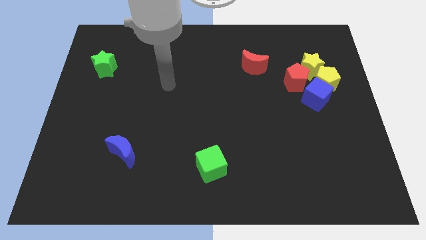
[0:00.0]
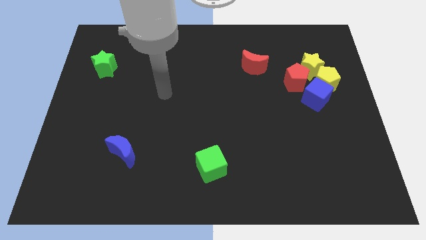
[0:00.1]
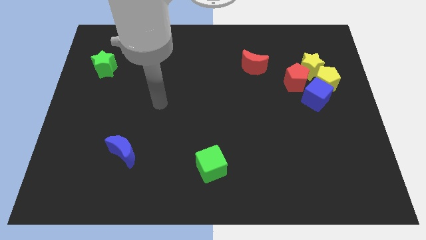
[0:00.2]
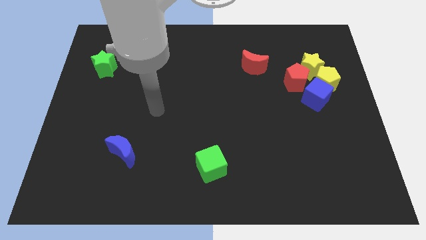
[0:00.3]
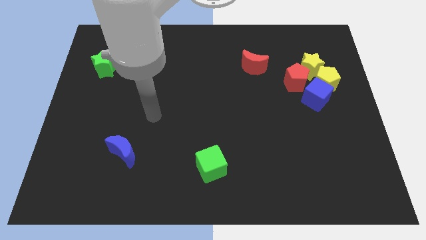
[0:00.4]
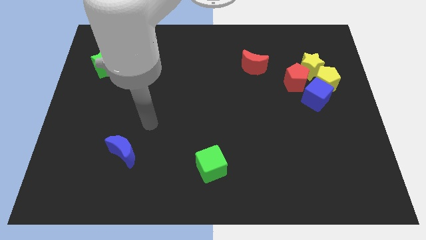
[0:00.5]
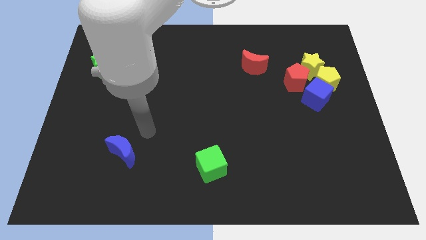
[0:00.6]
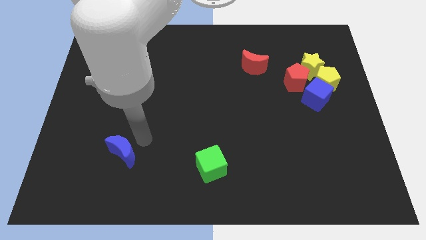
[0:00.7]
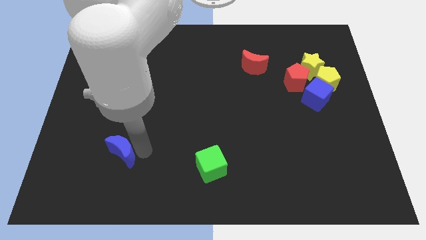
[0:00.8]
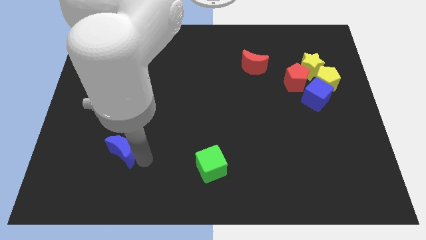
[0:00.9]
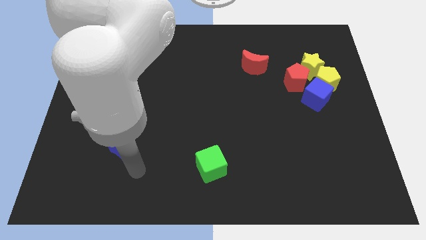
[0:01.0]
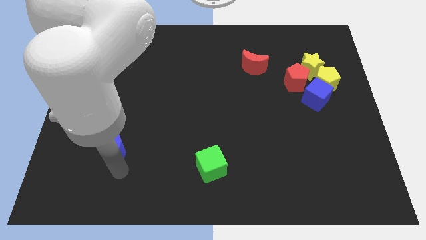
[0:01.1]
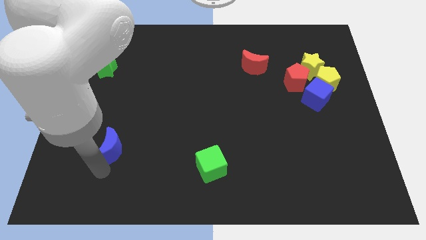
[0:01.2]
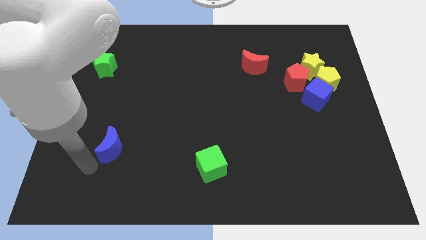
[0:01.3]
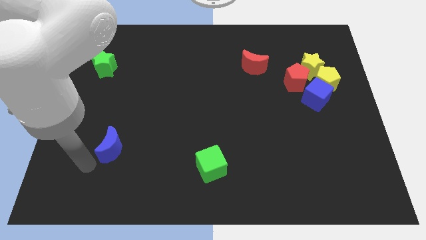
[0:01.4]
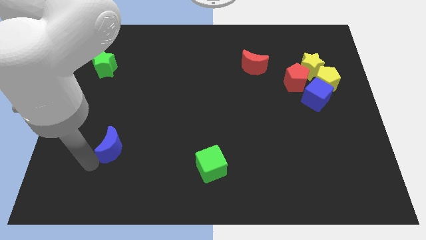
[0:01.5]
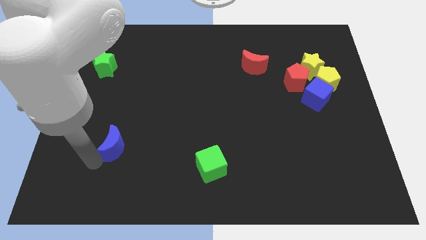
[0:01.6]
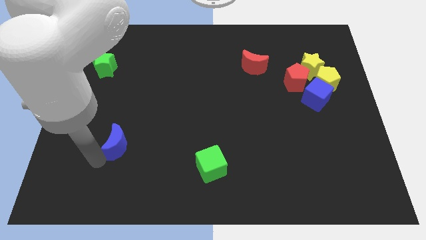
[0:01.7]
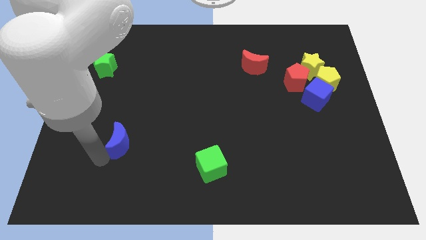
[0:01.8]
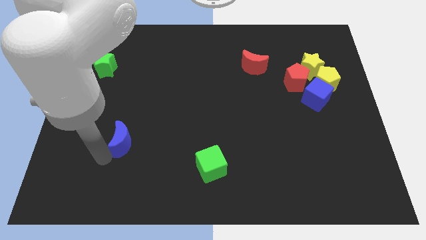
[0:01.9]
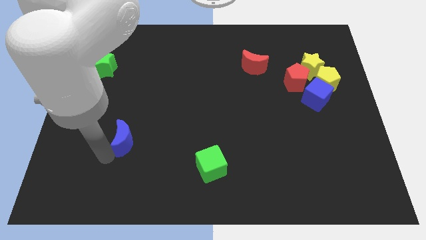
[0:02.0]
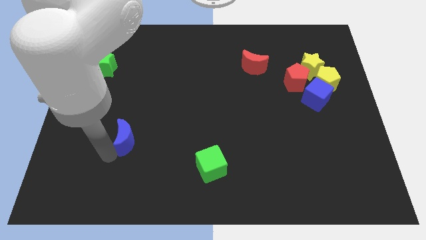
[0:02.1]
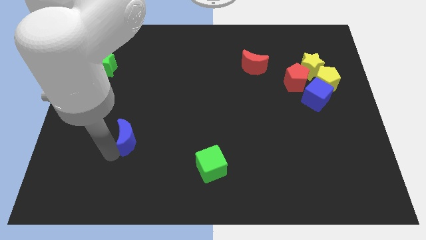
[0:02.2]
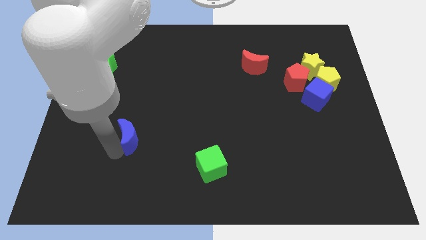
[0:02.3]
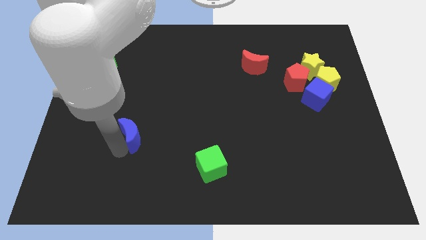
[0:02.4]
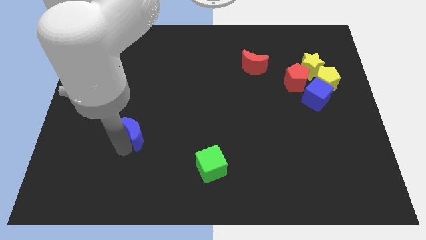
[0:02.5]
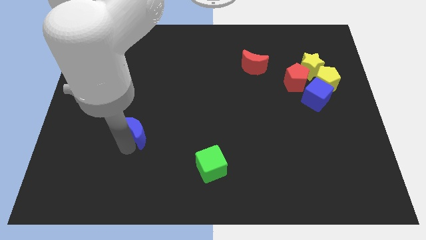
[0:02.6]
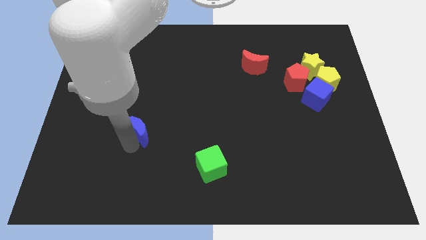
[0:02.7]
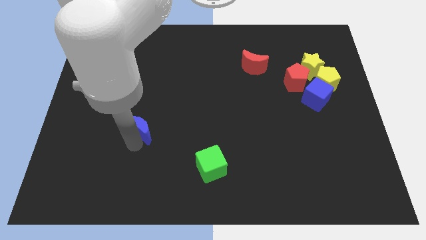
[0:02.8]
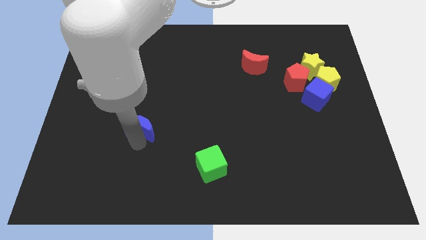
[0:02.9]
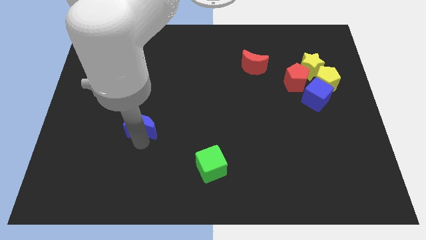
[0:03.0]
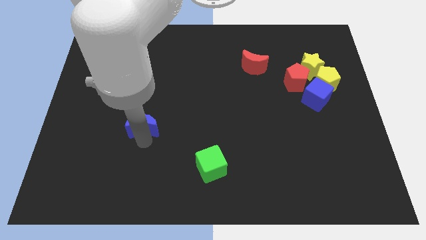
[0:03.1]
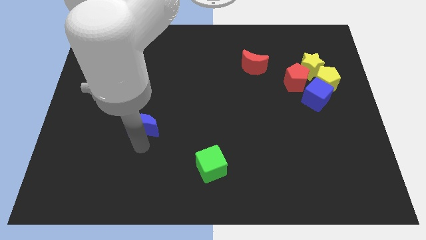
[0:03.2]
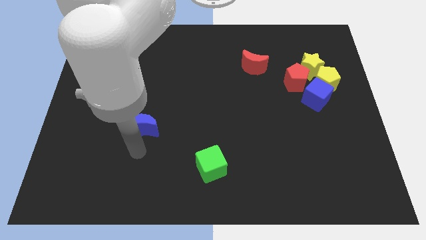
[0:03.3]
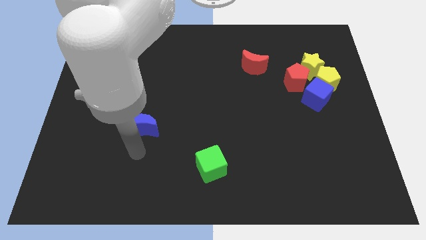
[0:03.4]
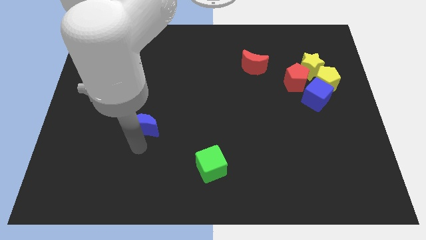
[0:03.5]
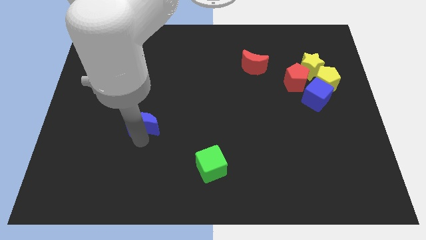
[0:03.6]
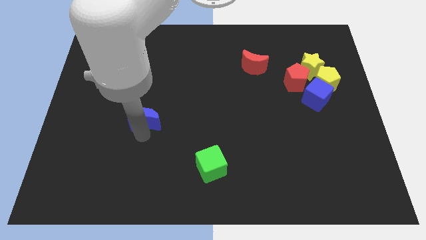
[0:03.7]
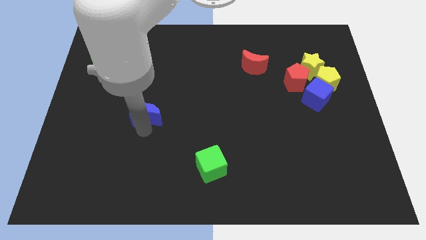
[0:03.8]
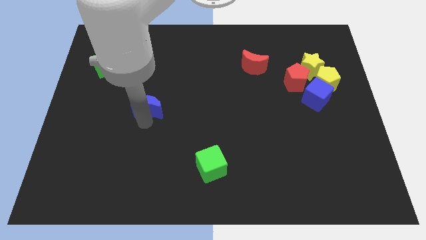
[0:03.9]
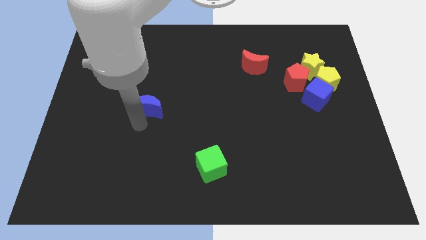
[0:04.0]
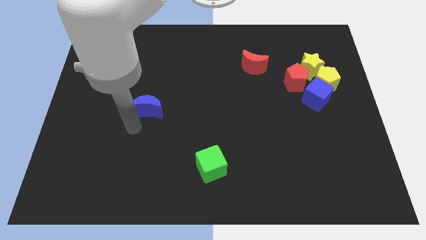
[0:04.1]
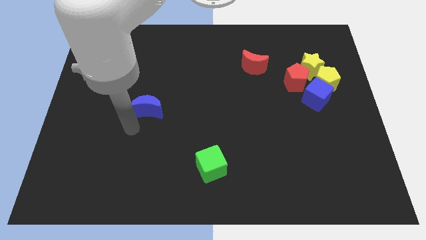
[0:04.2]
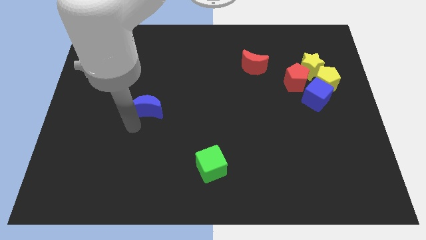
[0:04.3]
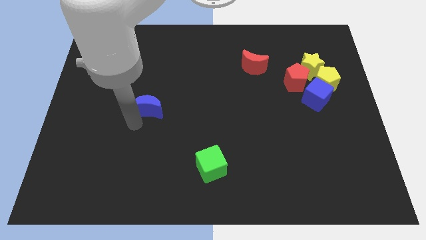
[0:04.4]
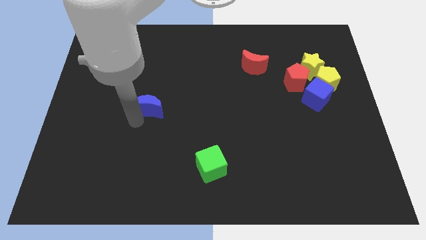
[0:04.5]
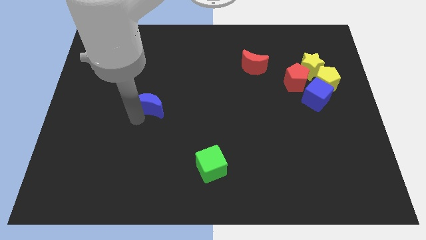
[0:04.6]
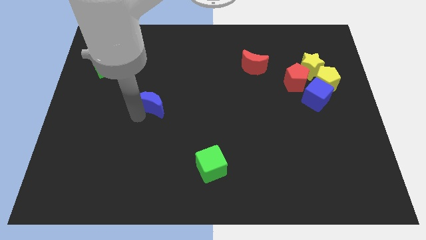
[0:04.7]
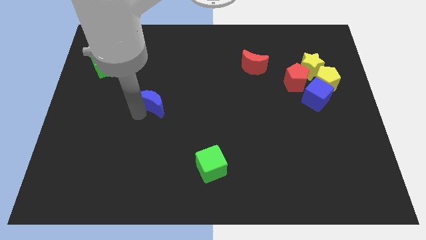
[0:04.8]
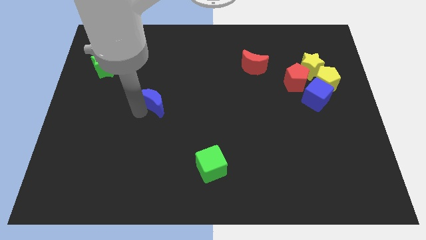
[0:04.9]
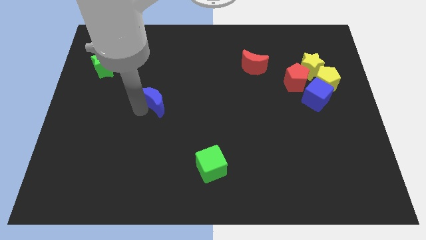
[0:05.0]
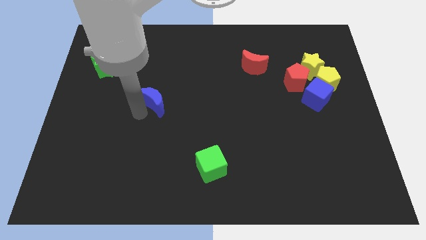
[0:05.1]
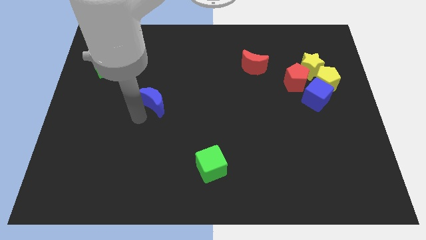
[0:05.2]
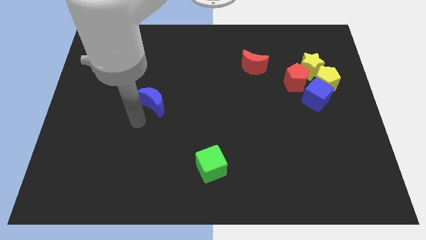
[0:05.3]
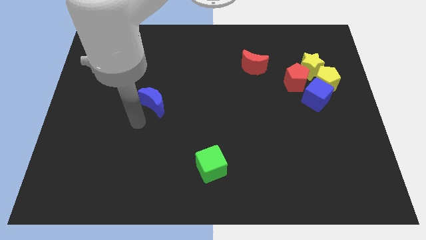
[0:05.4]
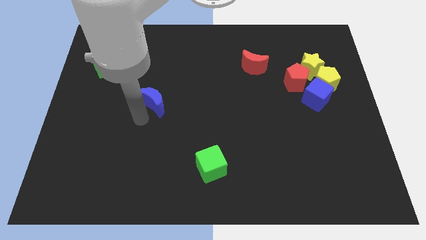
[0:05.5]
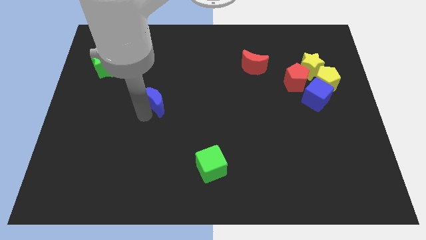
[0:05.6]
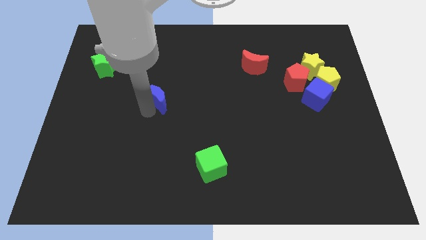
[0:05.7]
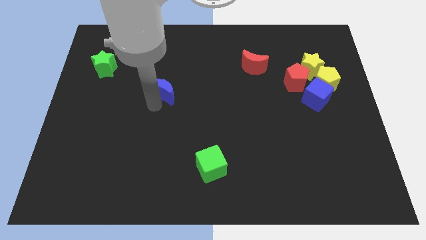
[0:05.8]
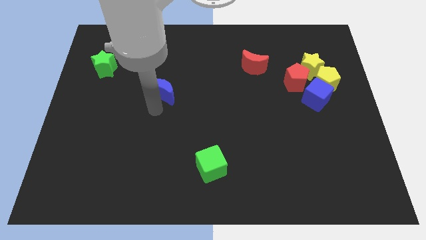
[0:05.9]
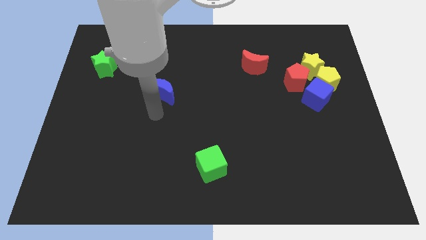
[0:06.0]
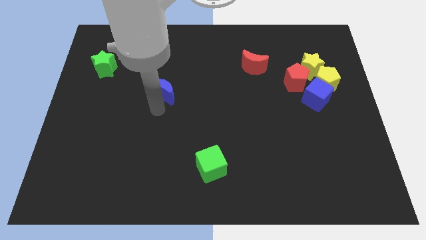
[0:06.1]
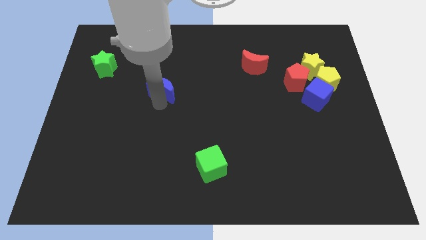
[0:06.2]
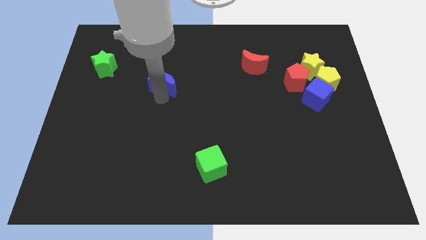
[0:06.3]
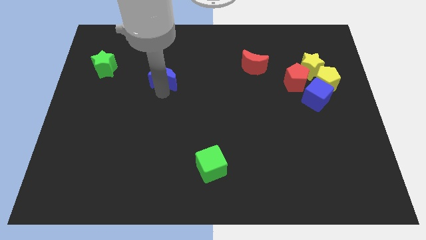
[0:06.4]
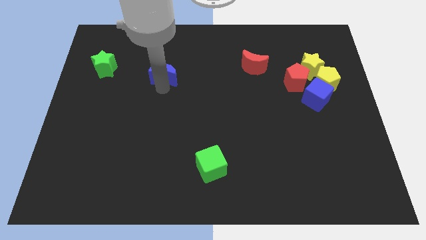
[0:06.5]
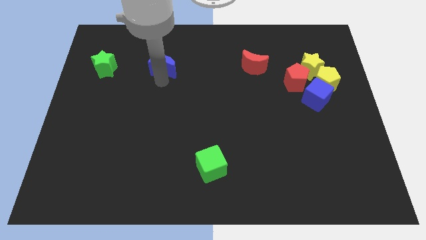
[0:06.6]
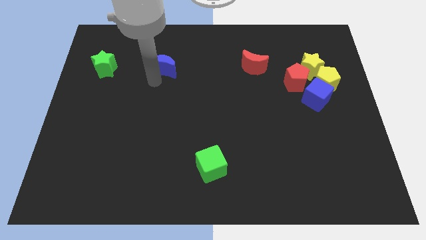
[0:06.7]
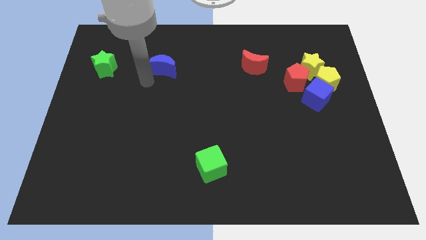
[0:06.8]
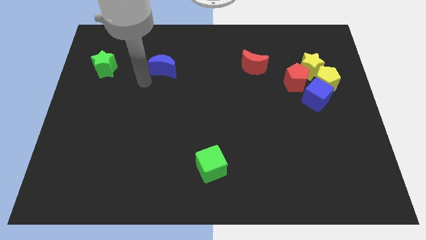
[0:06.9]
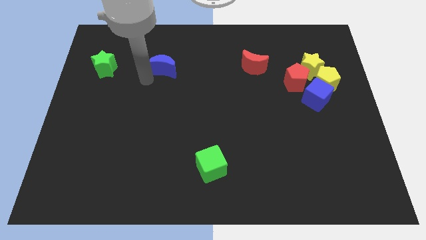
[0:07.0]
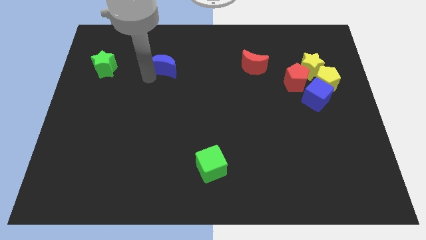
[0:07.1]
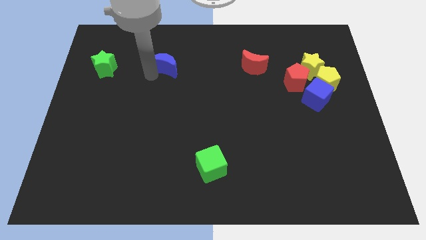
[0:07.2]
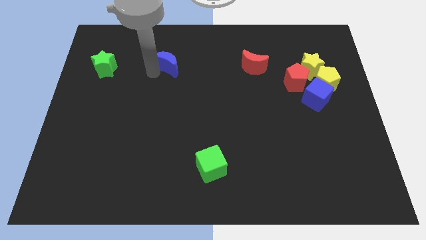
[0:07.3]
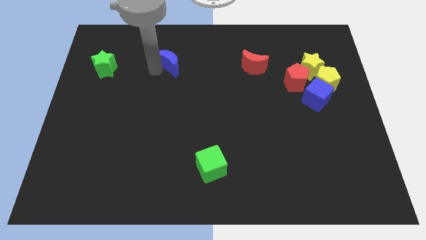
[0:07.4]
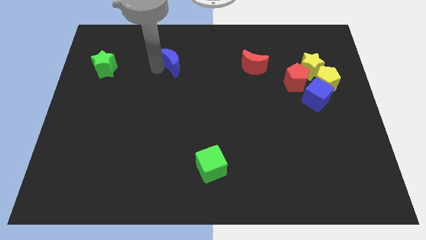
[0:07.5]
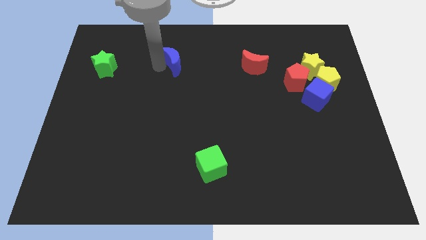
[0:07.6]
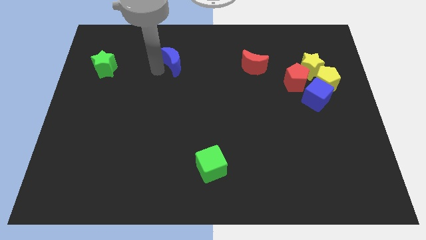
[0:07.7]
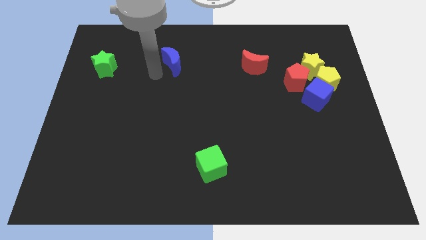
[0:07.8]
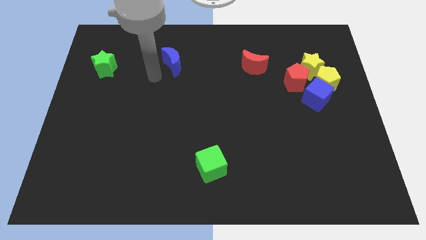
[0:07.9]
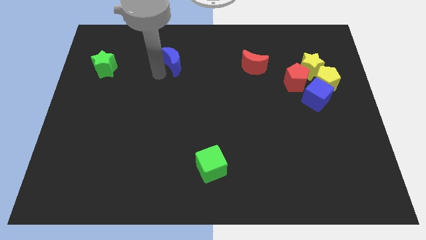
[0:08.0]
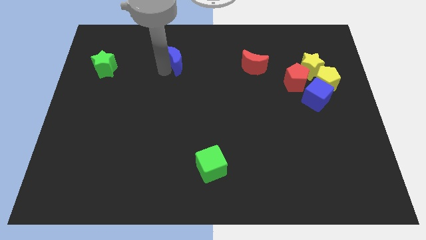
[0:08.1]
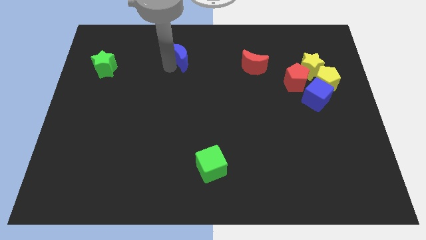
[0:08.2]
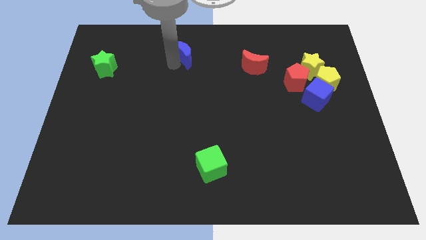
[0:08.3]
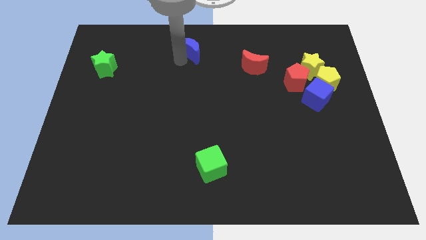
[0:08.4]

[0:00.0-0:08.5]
slide the blue moon to the towards your base
